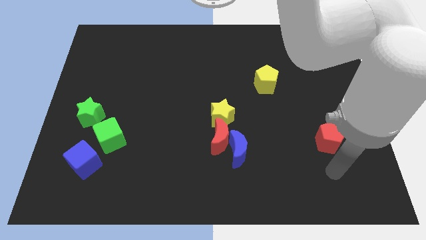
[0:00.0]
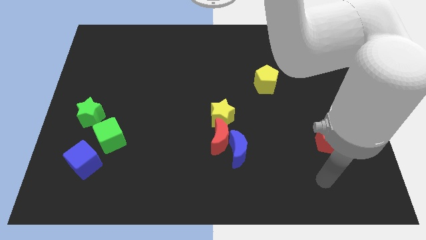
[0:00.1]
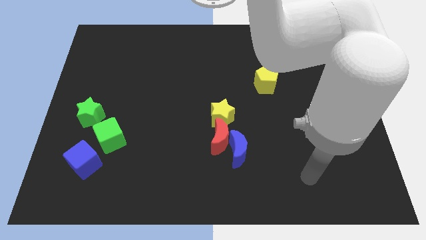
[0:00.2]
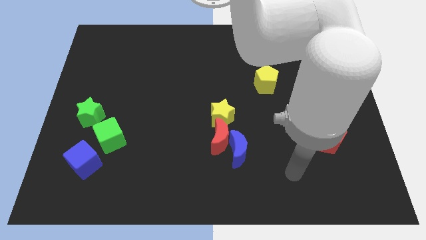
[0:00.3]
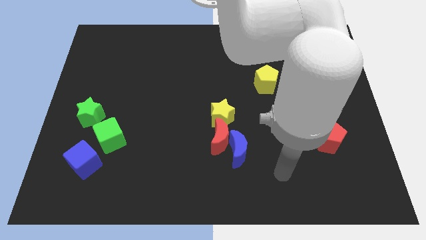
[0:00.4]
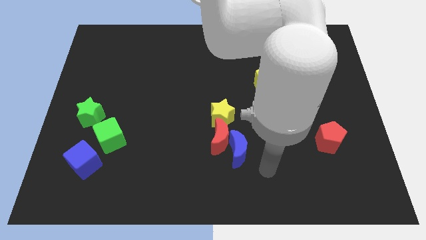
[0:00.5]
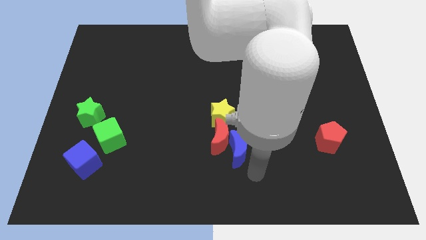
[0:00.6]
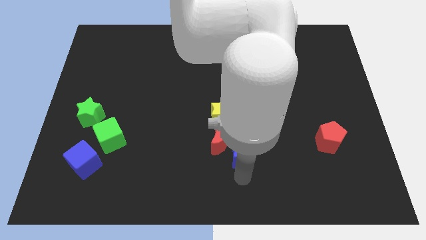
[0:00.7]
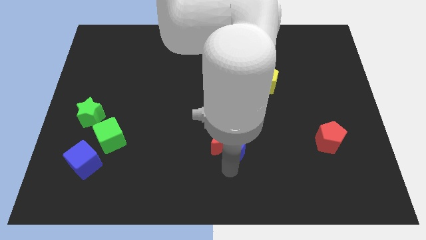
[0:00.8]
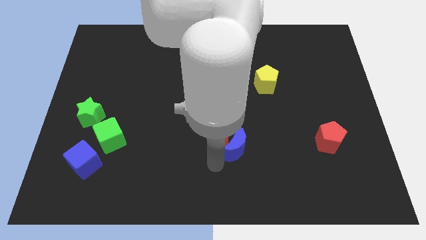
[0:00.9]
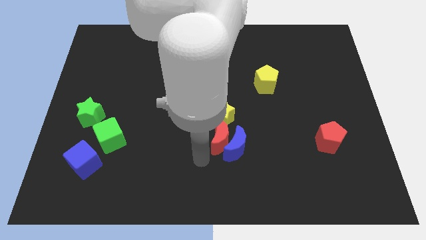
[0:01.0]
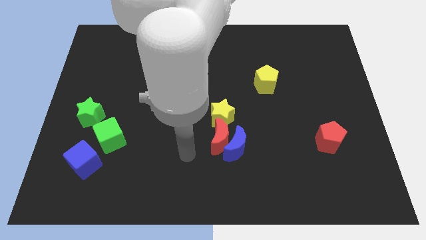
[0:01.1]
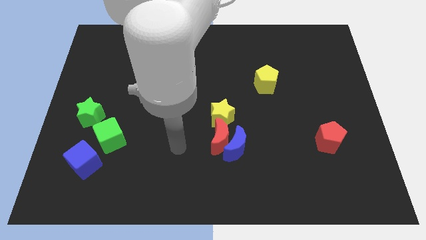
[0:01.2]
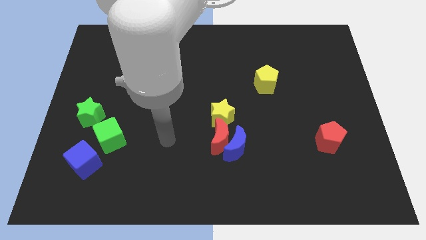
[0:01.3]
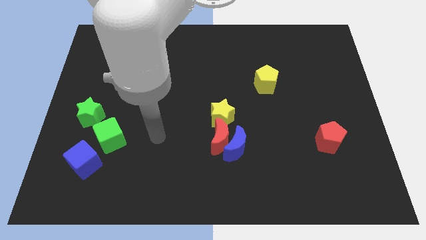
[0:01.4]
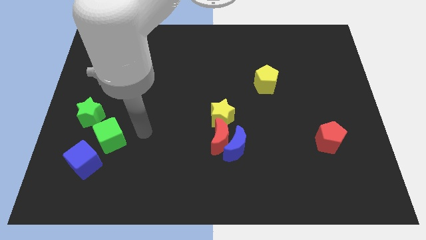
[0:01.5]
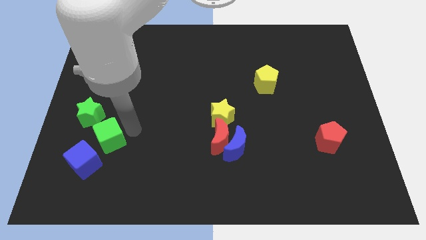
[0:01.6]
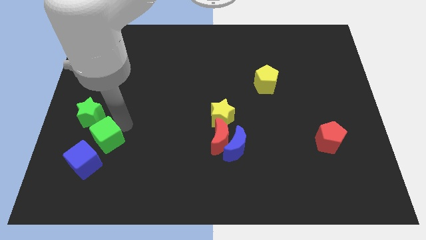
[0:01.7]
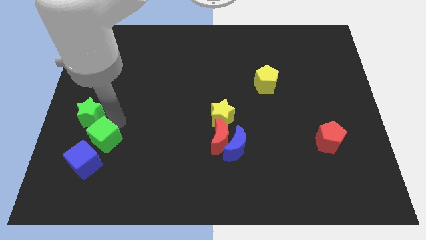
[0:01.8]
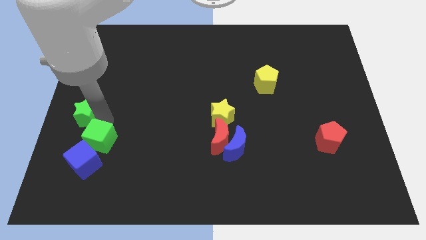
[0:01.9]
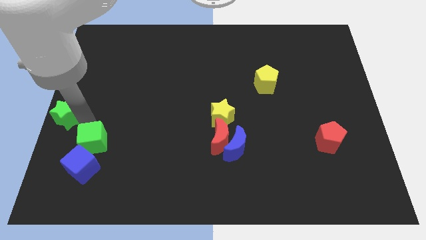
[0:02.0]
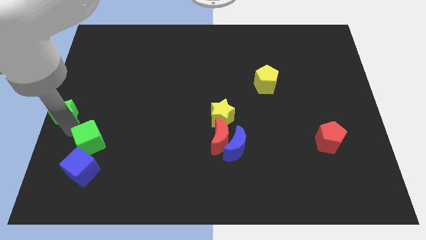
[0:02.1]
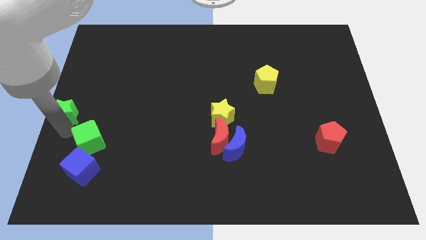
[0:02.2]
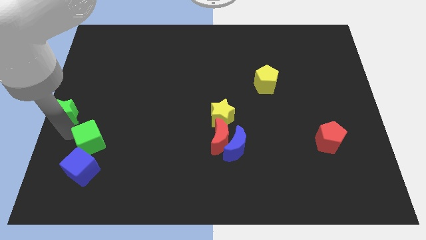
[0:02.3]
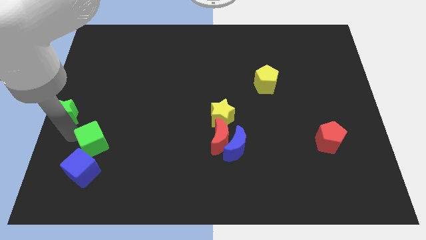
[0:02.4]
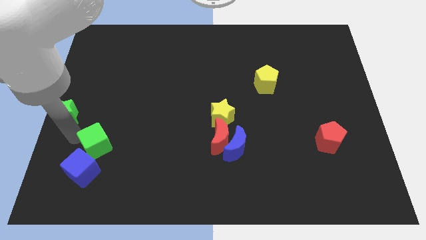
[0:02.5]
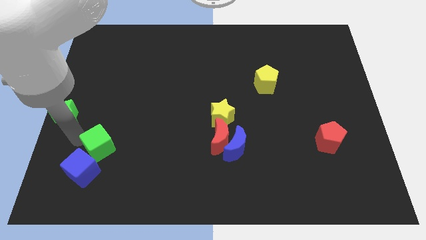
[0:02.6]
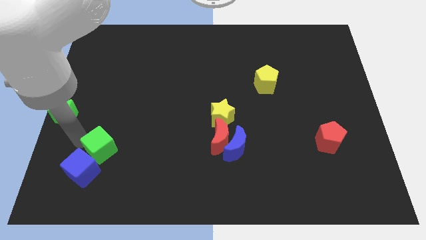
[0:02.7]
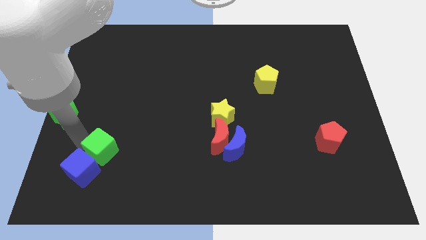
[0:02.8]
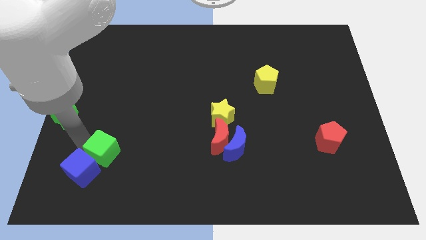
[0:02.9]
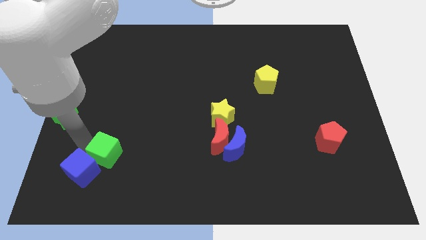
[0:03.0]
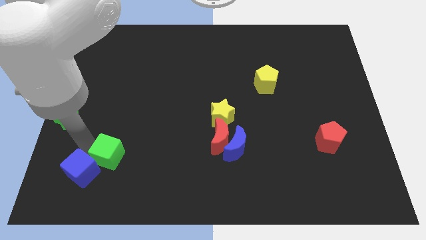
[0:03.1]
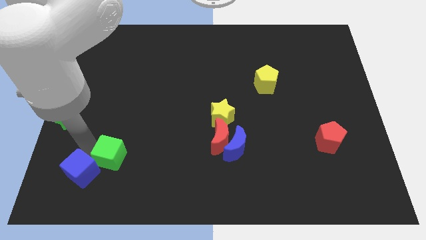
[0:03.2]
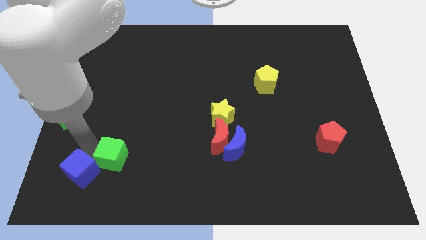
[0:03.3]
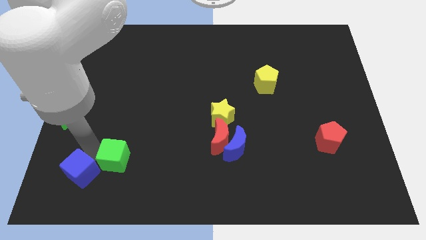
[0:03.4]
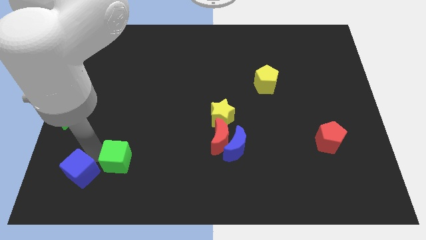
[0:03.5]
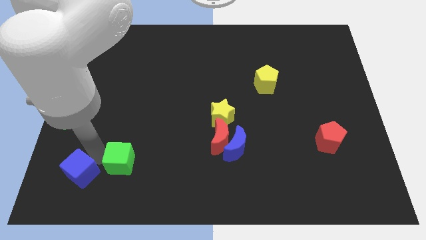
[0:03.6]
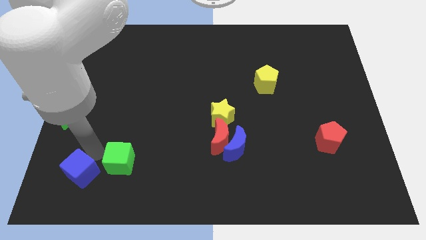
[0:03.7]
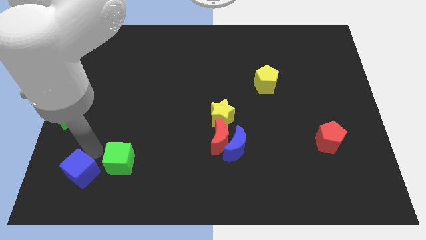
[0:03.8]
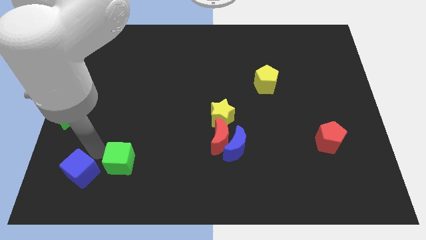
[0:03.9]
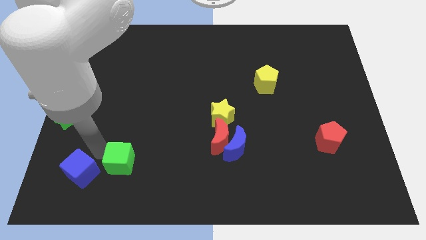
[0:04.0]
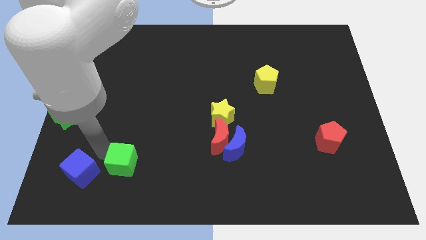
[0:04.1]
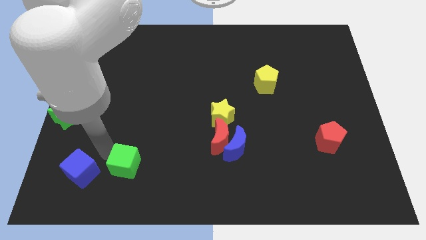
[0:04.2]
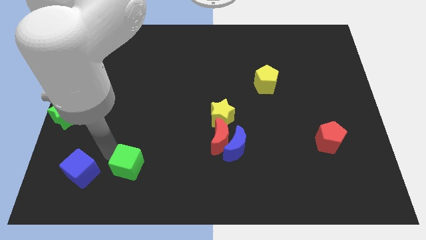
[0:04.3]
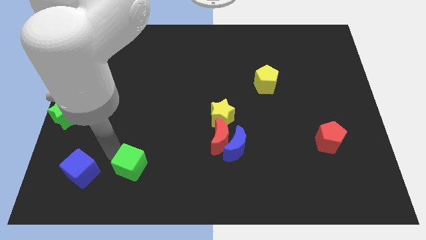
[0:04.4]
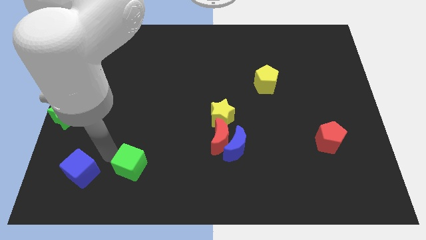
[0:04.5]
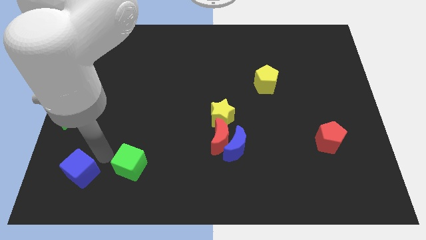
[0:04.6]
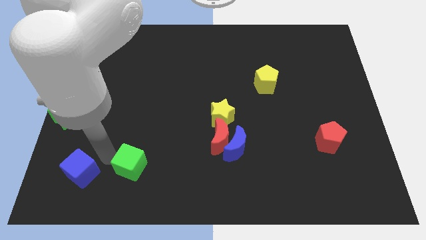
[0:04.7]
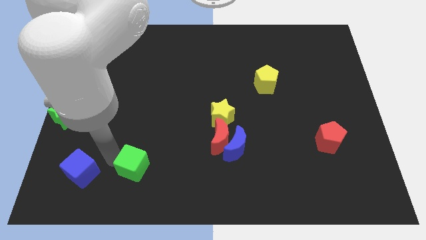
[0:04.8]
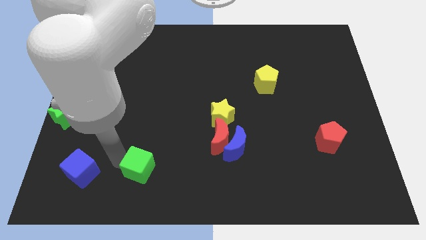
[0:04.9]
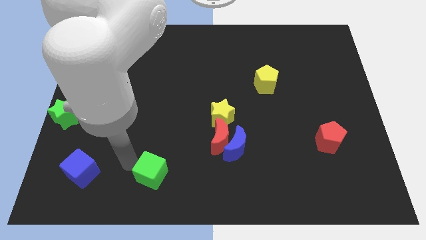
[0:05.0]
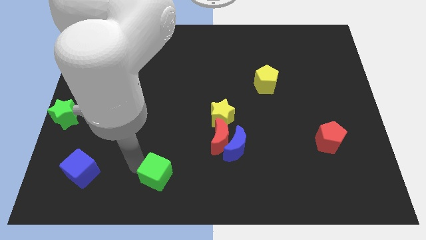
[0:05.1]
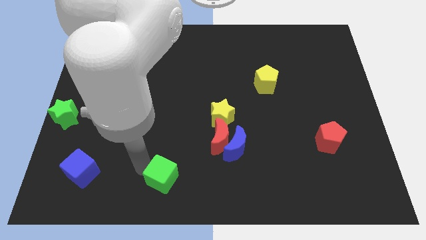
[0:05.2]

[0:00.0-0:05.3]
slide the green cube to the bottom side
